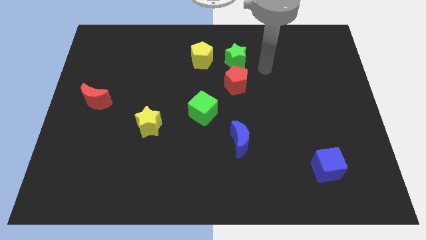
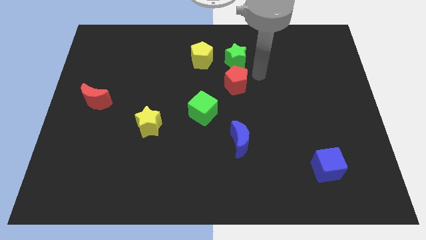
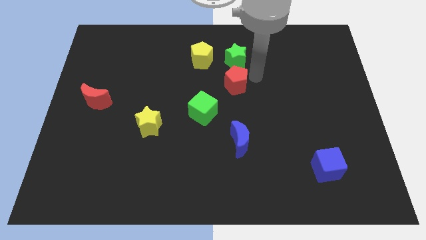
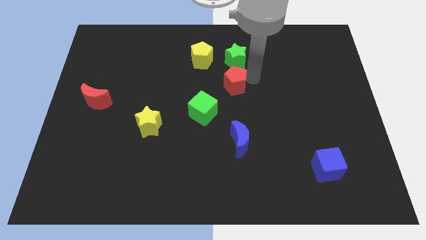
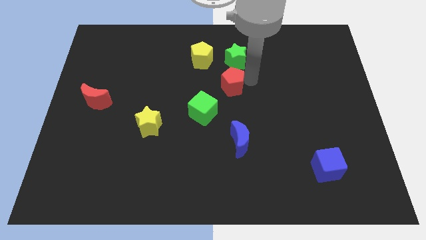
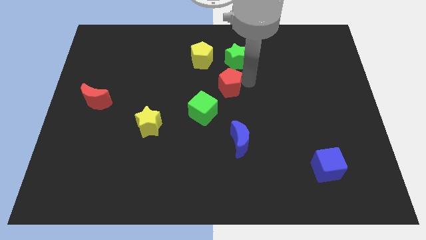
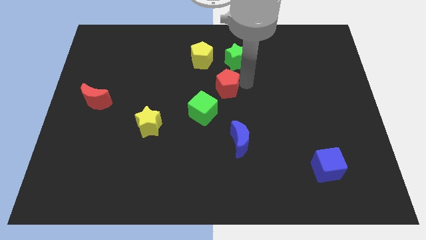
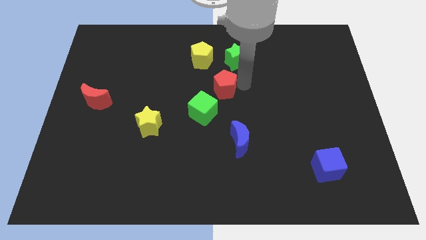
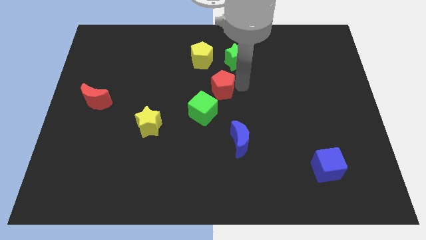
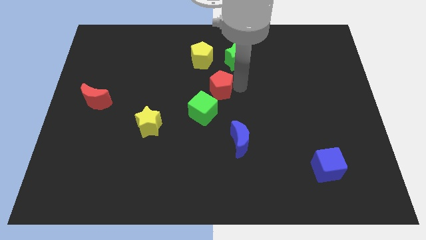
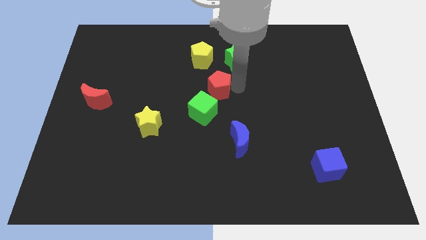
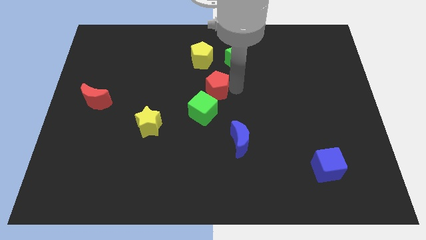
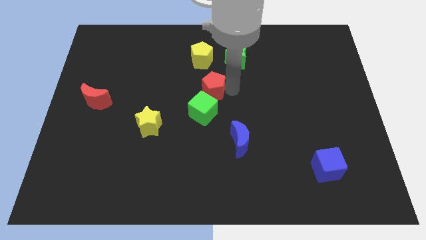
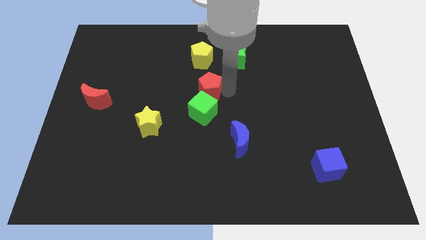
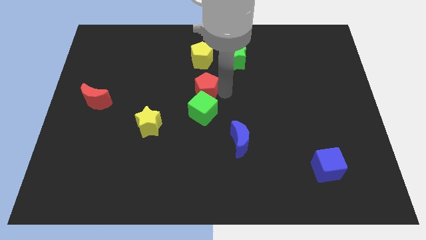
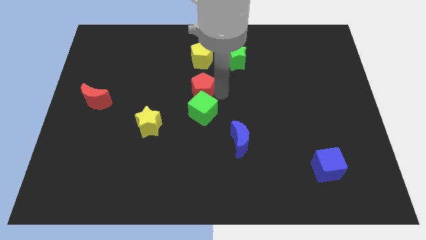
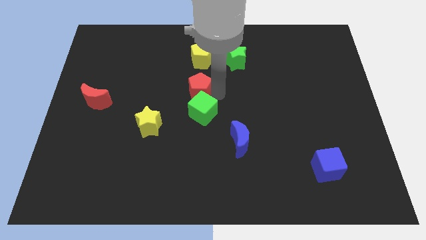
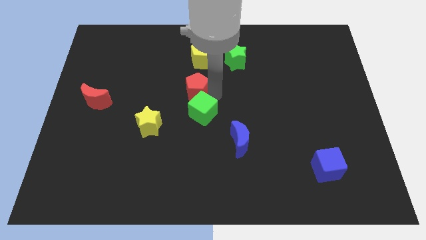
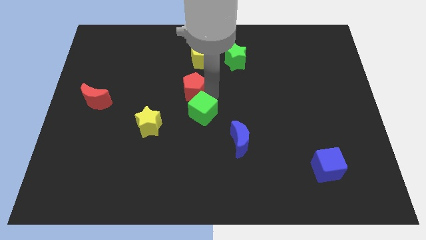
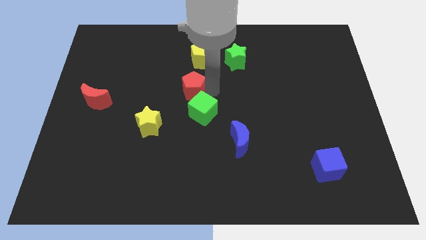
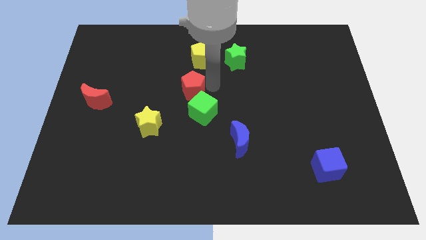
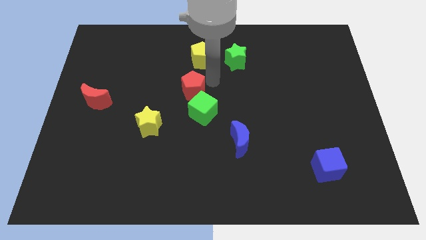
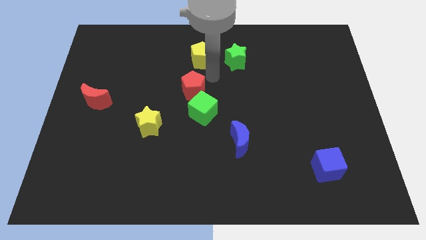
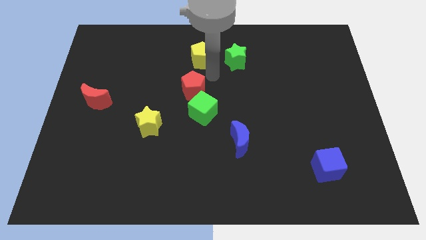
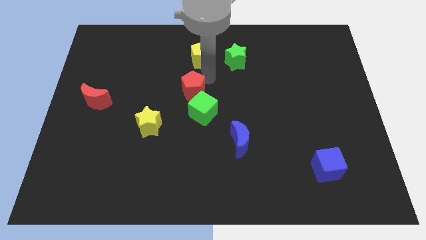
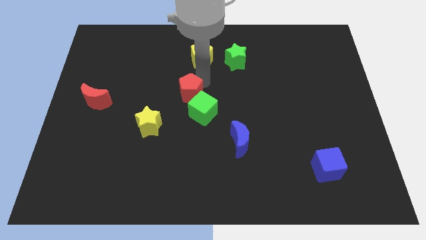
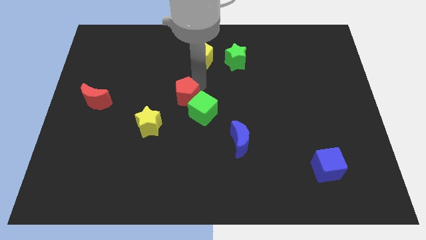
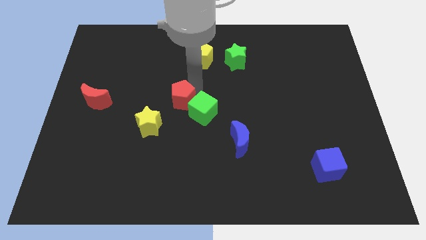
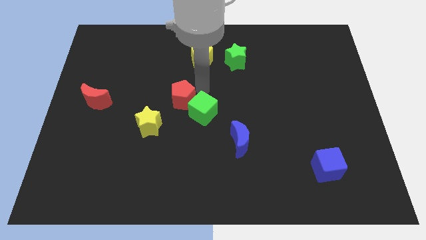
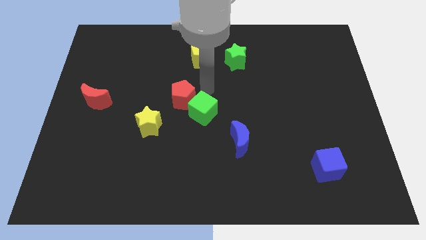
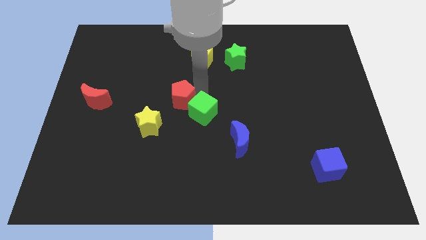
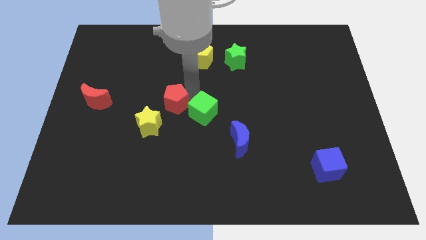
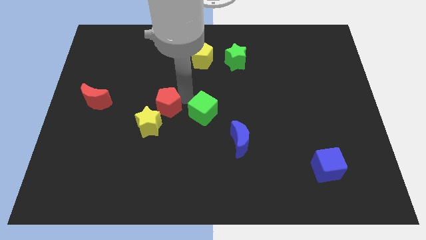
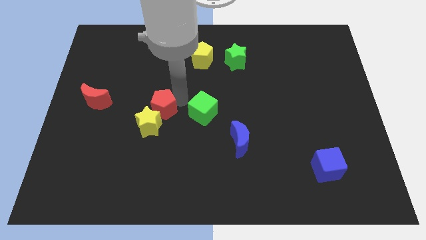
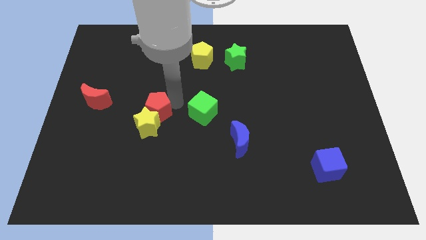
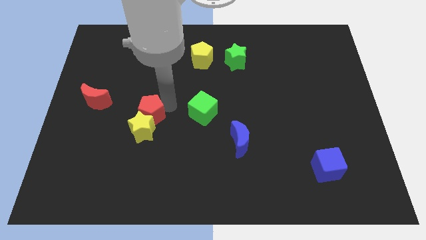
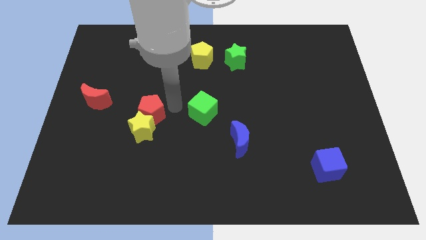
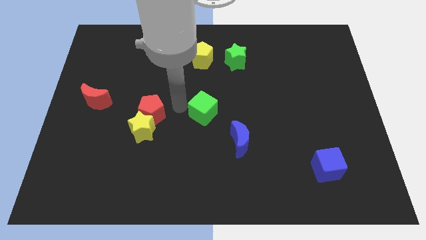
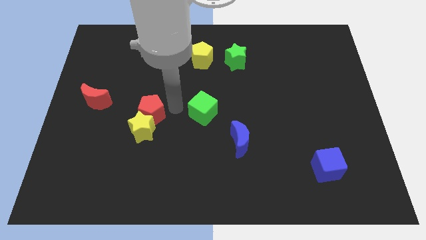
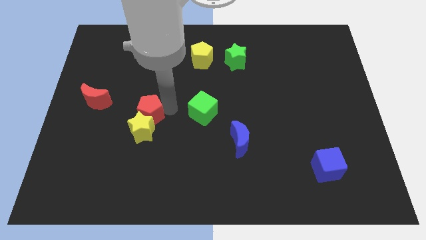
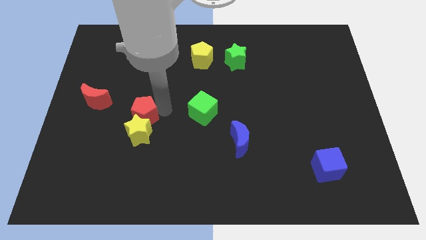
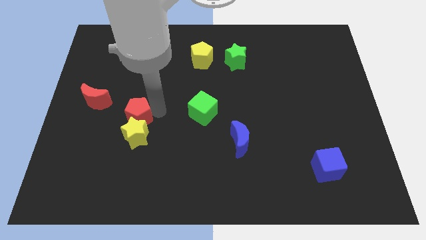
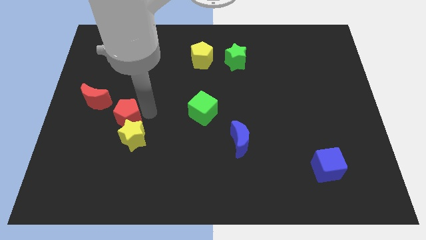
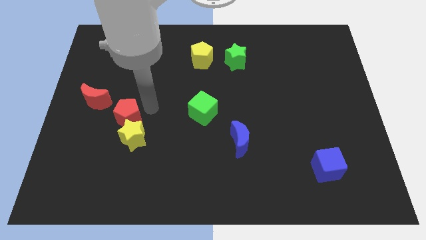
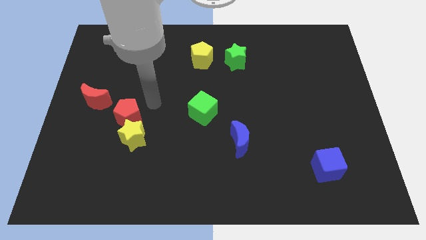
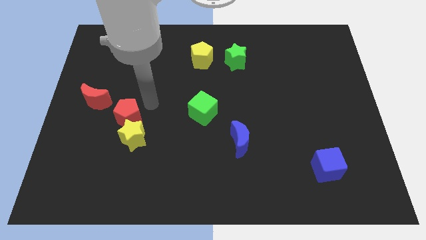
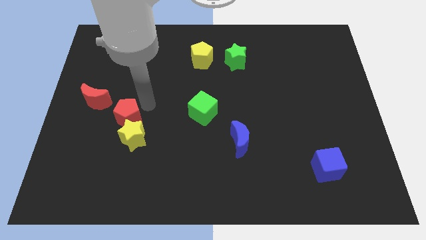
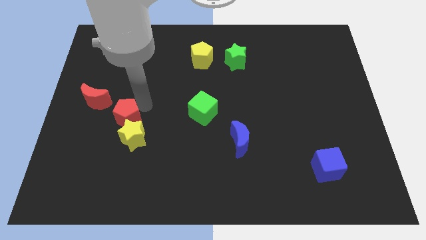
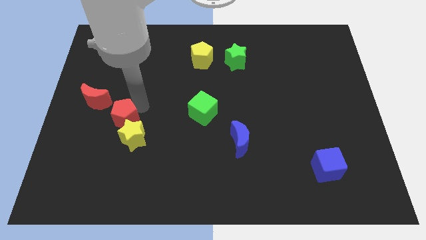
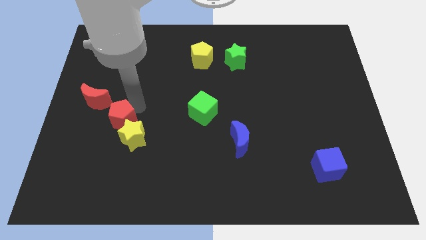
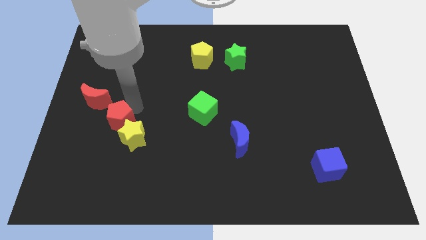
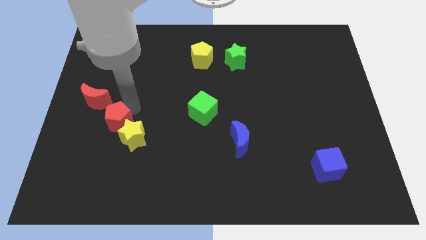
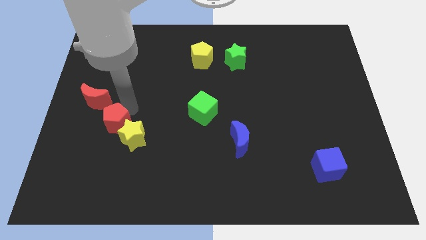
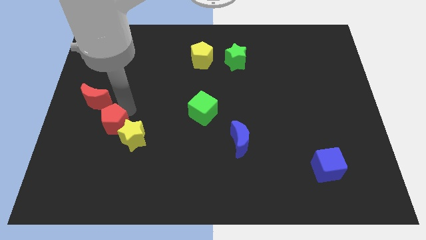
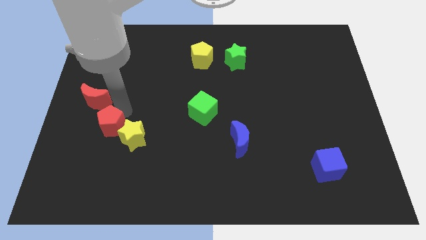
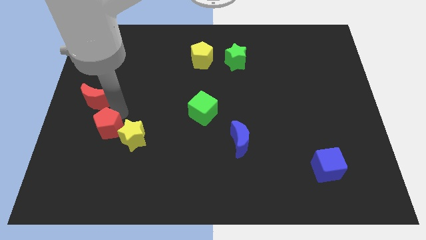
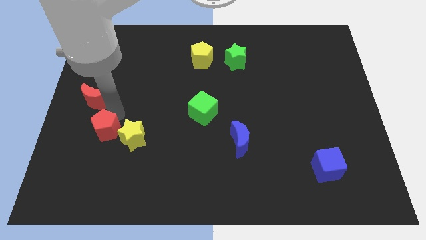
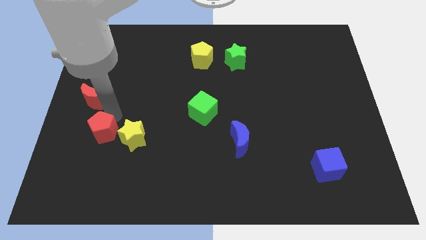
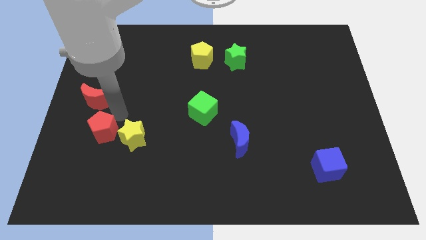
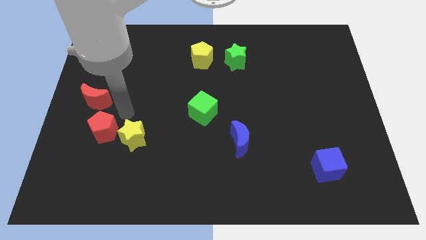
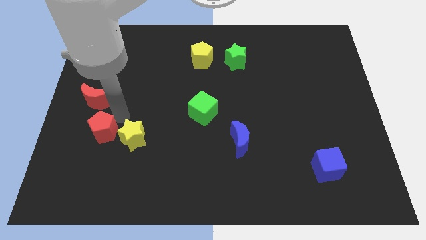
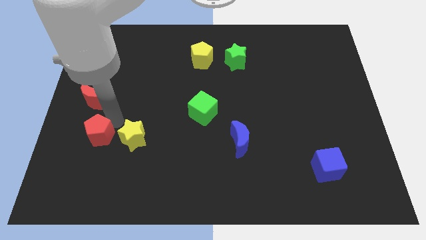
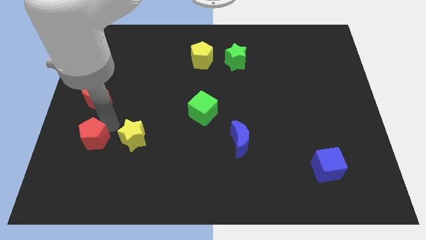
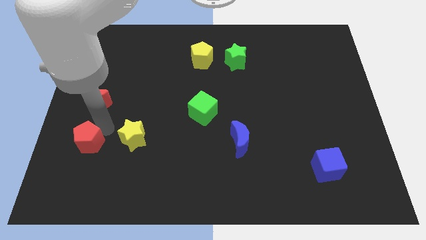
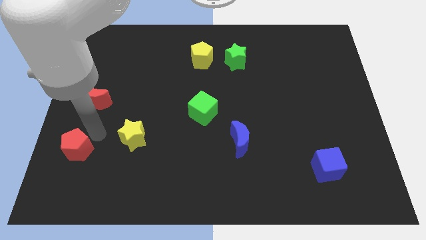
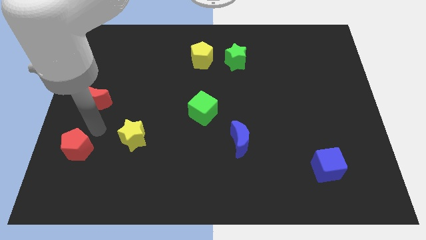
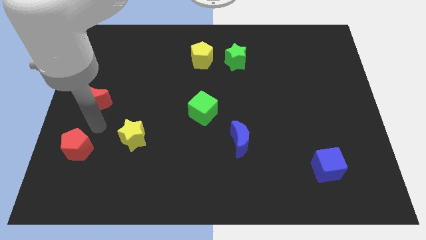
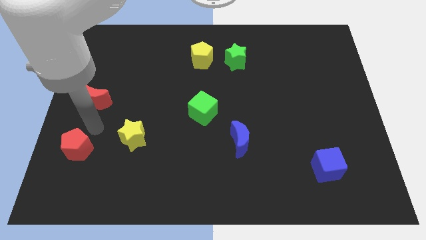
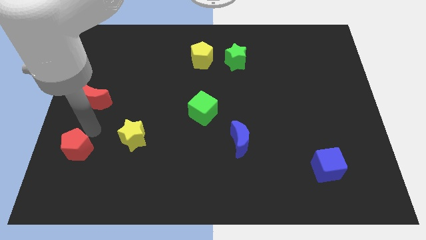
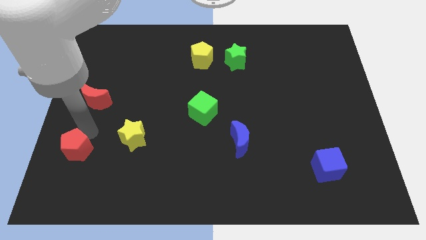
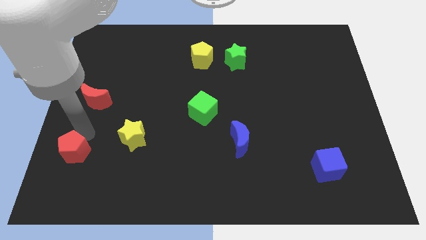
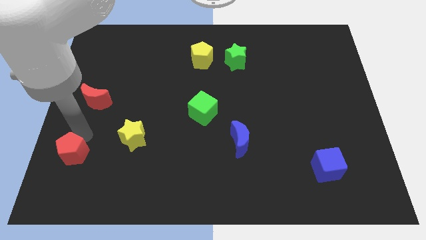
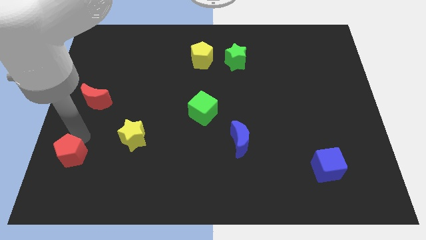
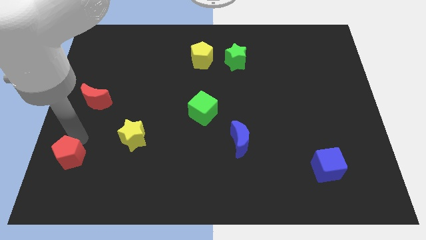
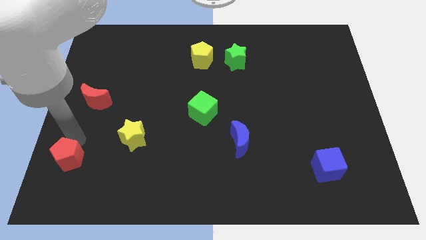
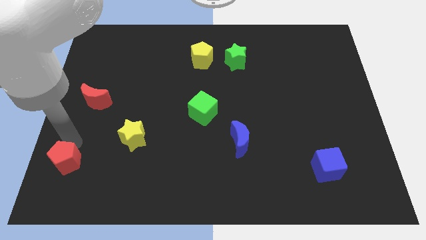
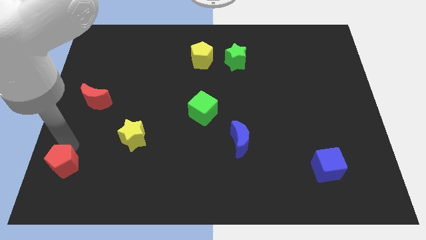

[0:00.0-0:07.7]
push the red pentagon to the lower left corner
